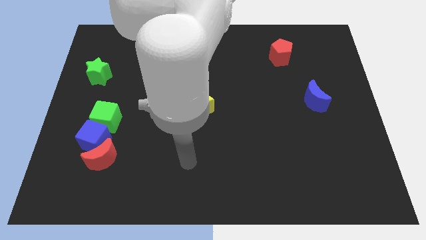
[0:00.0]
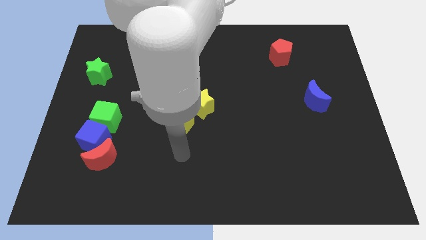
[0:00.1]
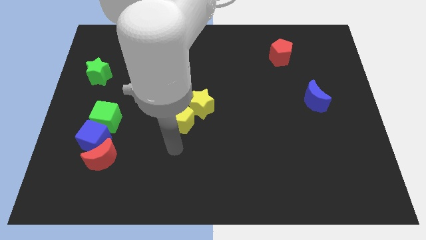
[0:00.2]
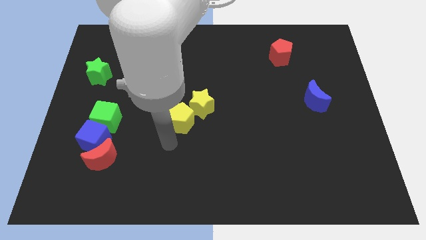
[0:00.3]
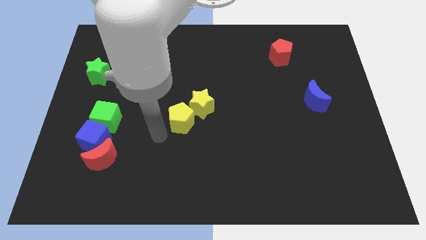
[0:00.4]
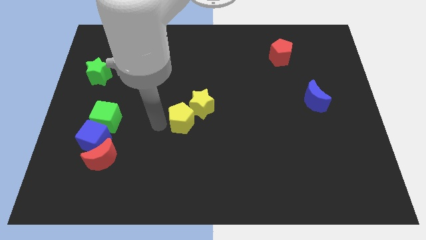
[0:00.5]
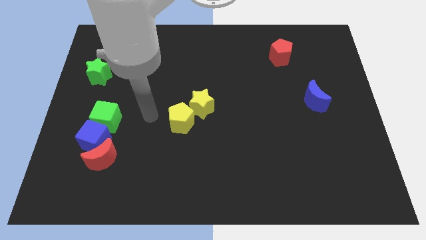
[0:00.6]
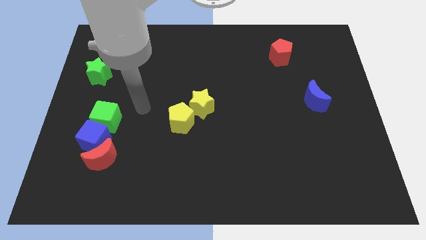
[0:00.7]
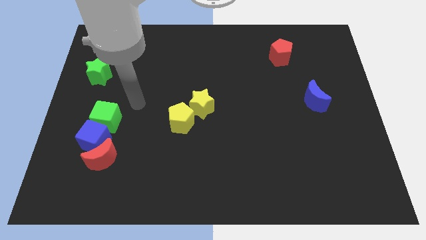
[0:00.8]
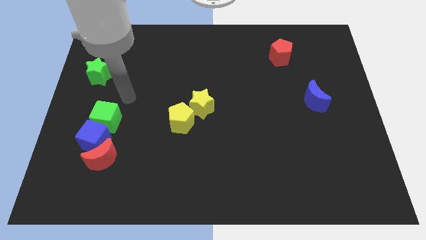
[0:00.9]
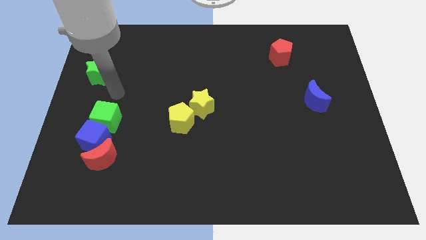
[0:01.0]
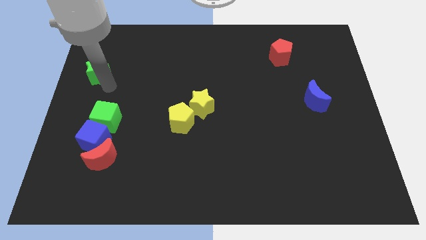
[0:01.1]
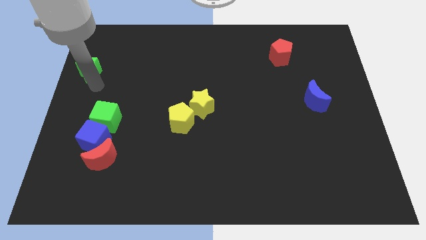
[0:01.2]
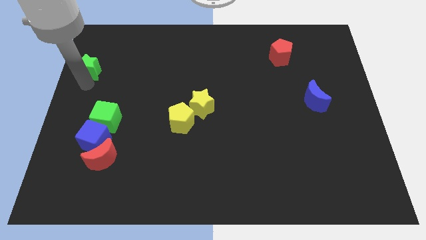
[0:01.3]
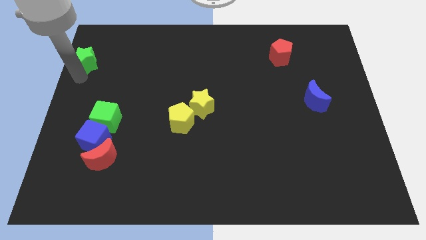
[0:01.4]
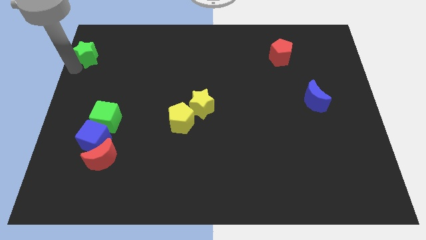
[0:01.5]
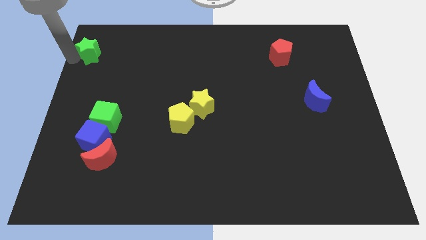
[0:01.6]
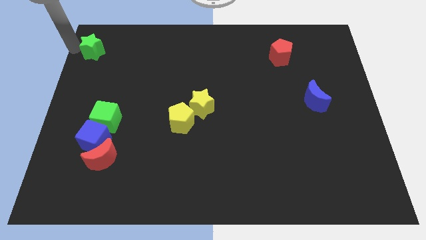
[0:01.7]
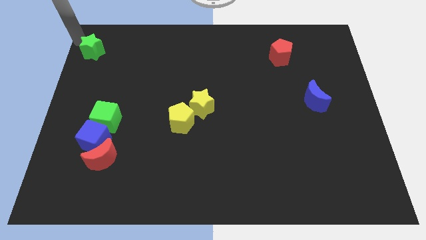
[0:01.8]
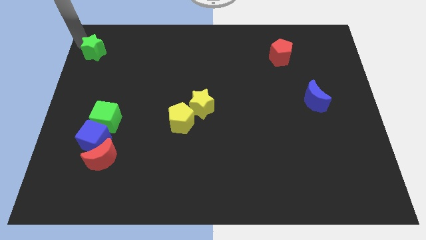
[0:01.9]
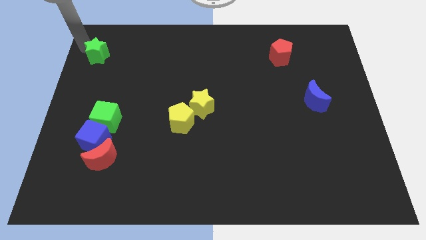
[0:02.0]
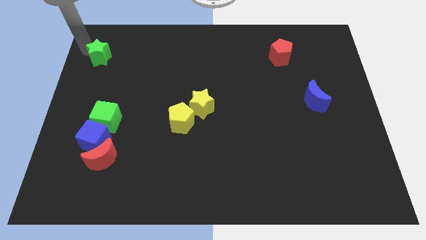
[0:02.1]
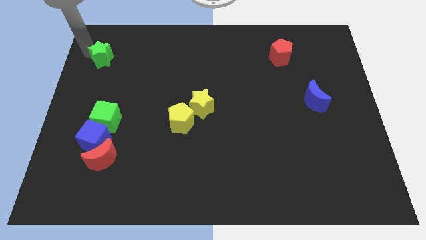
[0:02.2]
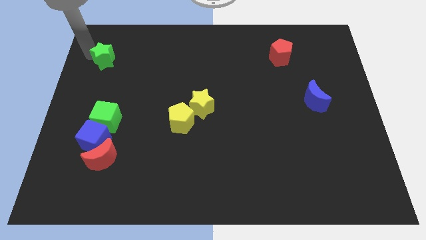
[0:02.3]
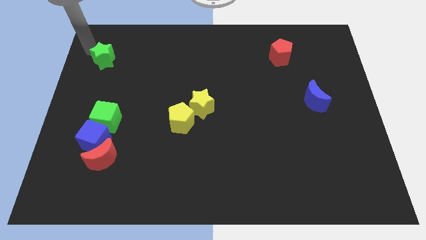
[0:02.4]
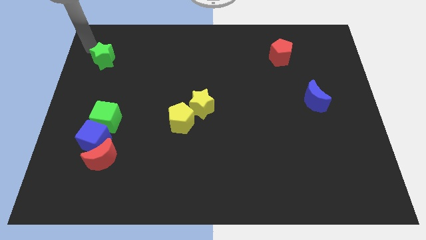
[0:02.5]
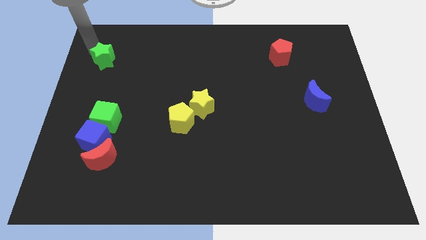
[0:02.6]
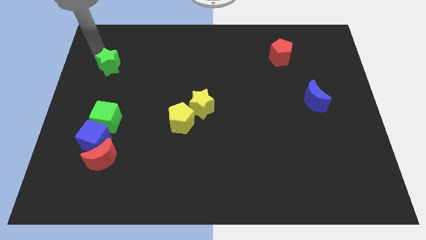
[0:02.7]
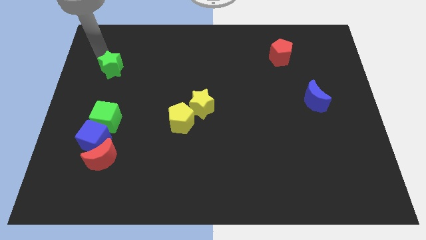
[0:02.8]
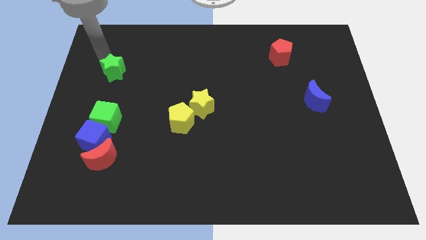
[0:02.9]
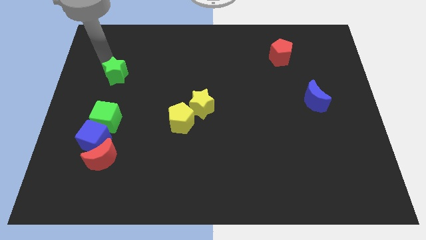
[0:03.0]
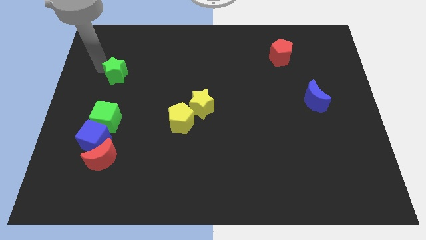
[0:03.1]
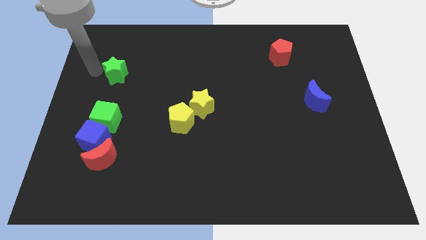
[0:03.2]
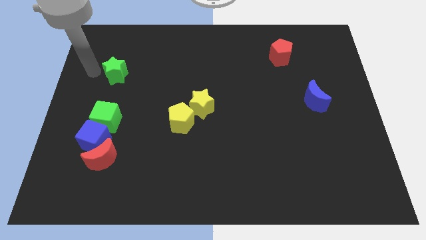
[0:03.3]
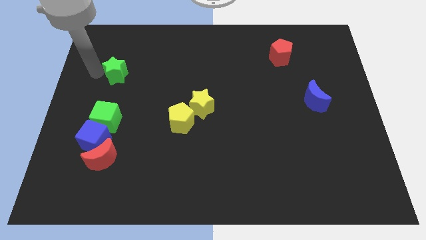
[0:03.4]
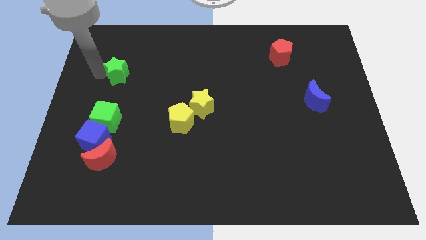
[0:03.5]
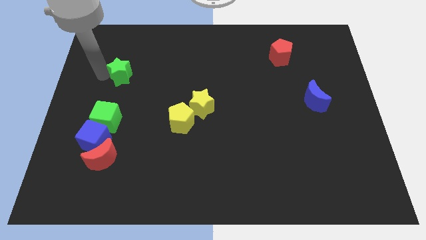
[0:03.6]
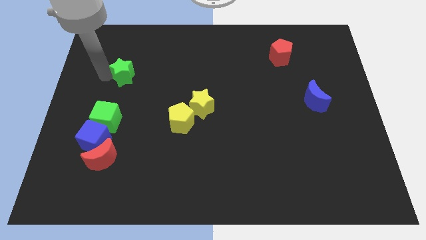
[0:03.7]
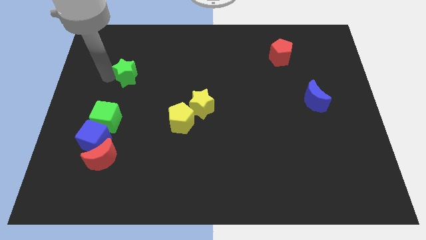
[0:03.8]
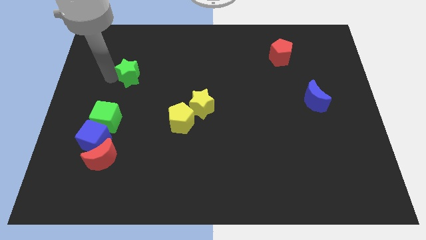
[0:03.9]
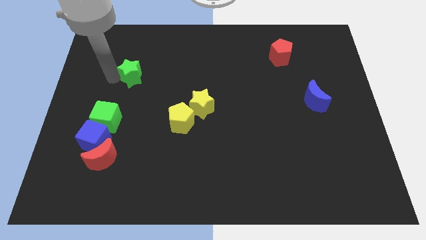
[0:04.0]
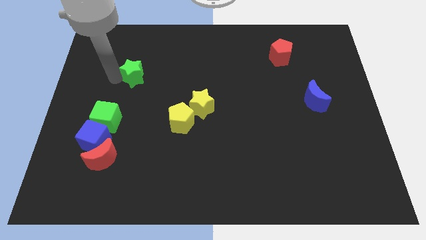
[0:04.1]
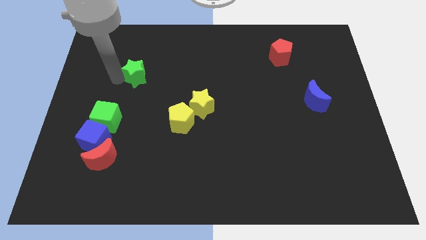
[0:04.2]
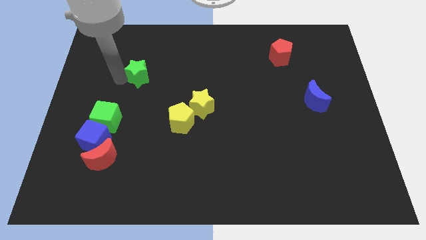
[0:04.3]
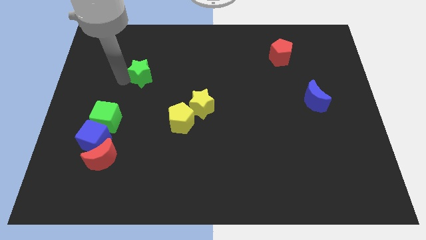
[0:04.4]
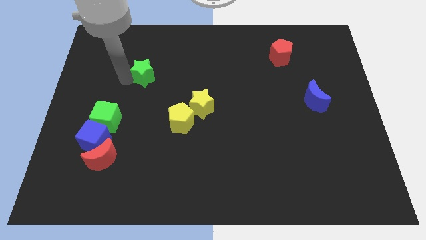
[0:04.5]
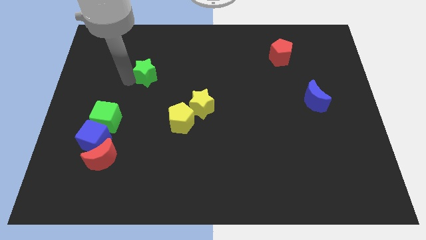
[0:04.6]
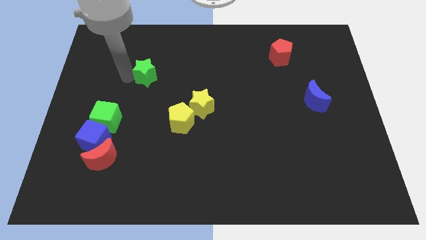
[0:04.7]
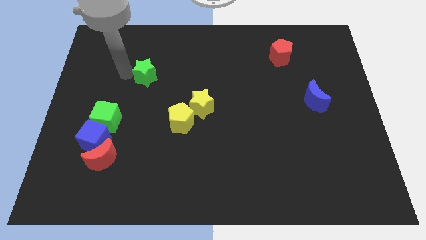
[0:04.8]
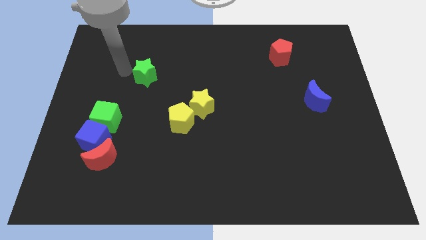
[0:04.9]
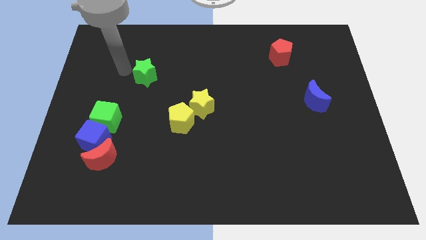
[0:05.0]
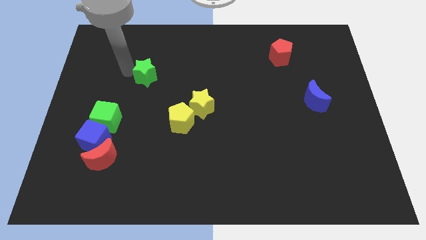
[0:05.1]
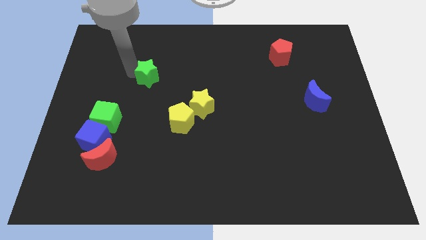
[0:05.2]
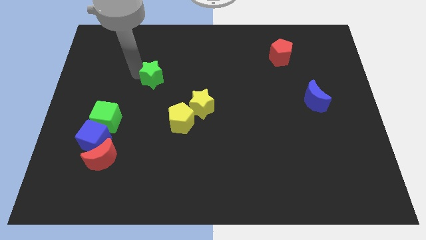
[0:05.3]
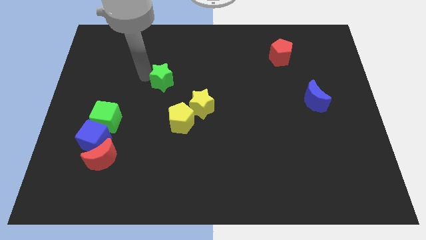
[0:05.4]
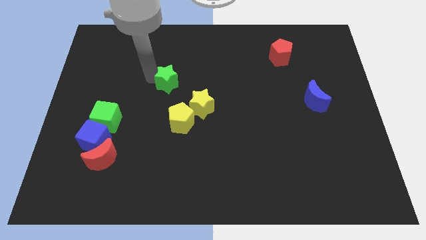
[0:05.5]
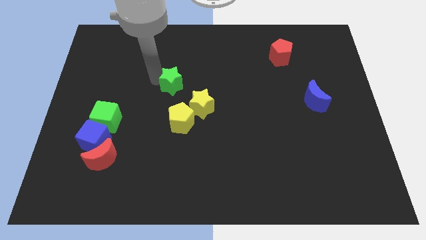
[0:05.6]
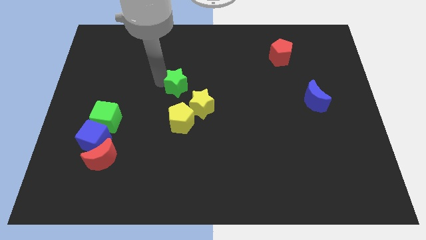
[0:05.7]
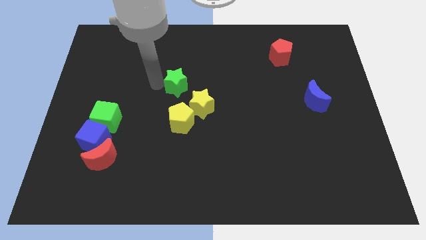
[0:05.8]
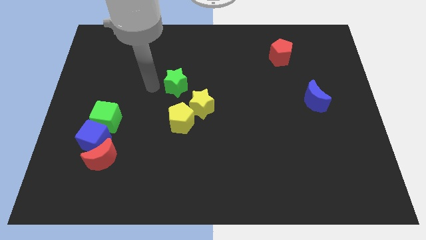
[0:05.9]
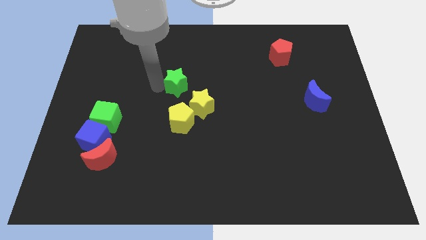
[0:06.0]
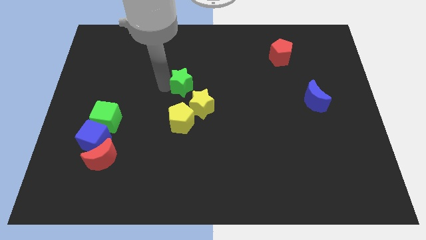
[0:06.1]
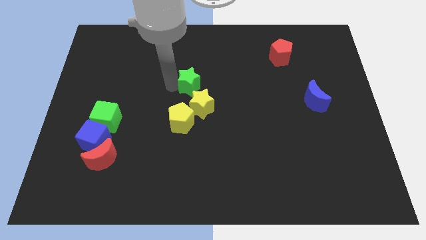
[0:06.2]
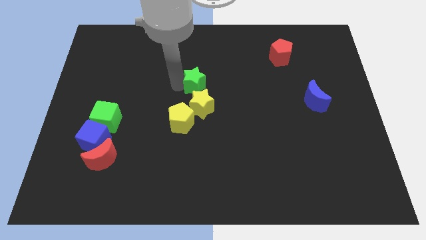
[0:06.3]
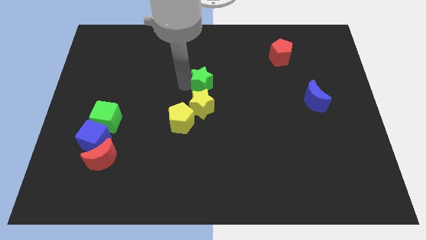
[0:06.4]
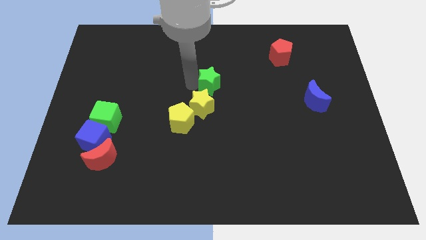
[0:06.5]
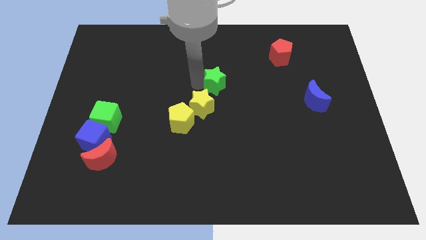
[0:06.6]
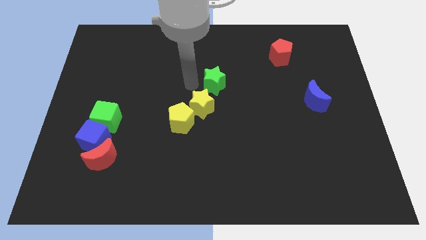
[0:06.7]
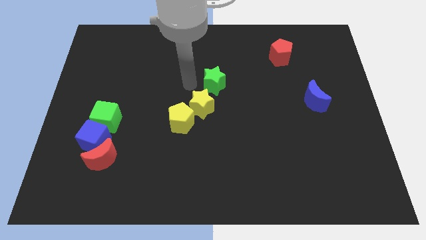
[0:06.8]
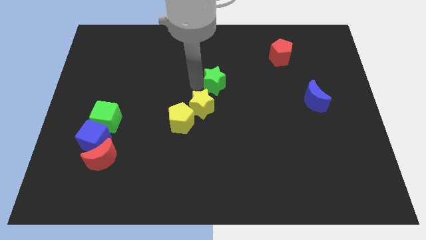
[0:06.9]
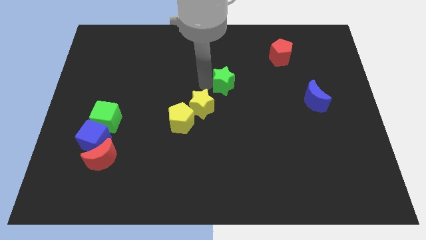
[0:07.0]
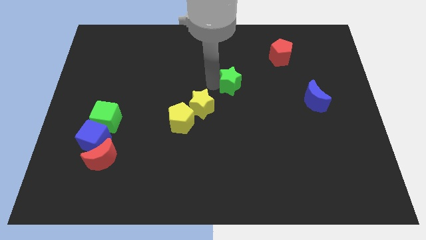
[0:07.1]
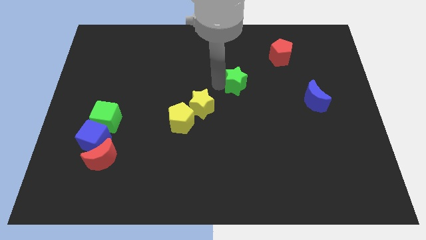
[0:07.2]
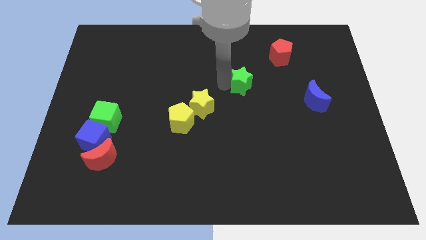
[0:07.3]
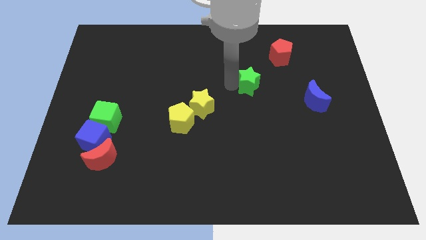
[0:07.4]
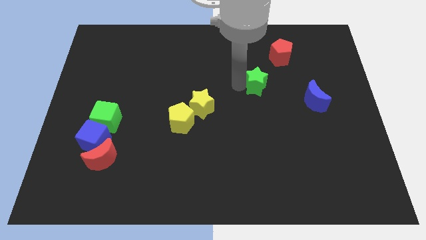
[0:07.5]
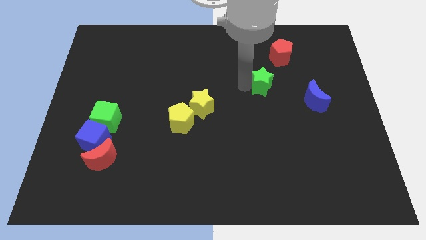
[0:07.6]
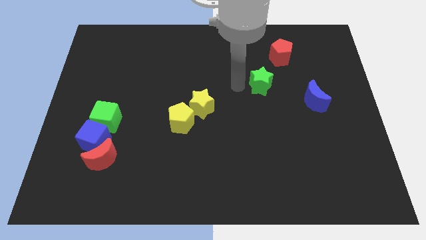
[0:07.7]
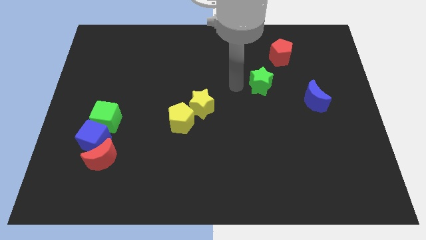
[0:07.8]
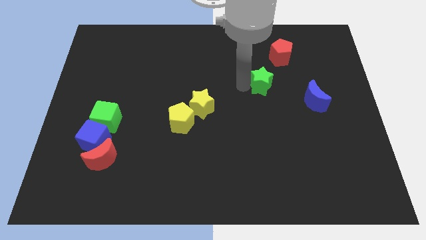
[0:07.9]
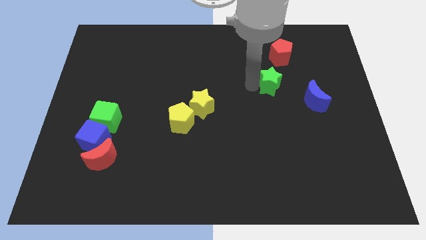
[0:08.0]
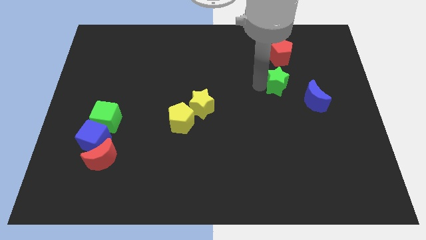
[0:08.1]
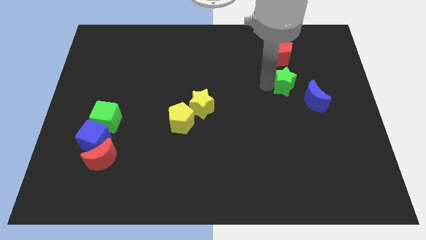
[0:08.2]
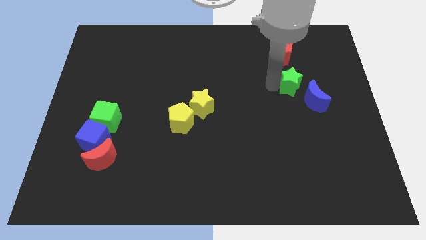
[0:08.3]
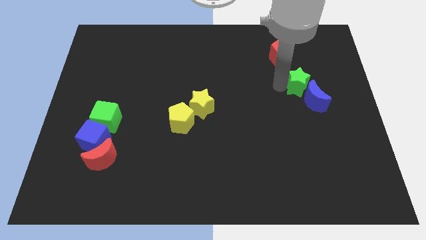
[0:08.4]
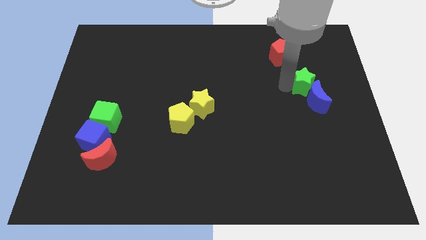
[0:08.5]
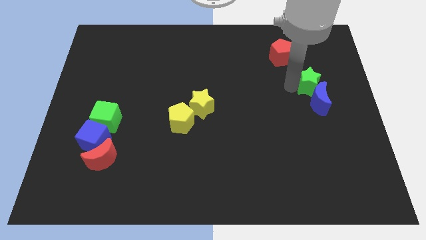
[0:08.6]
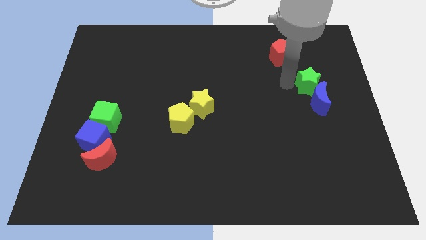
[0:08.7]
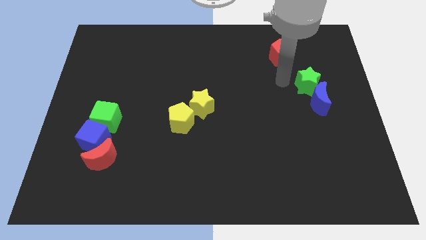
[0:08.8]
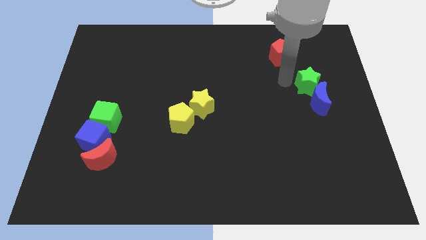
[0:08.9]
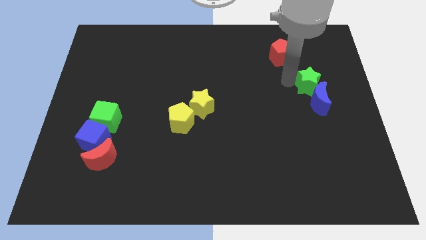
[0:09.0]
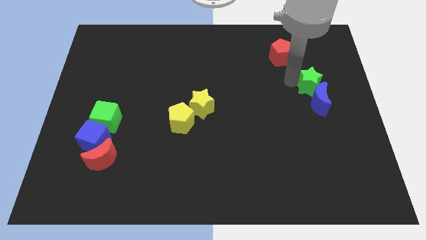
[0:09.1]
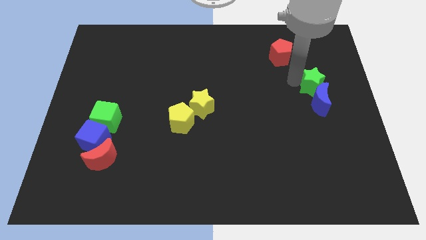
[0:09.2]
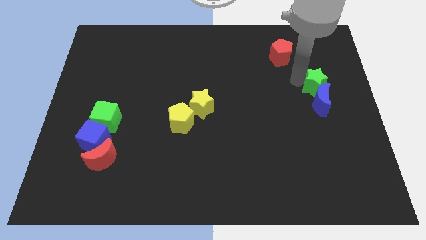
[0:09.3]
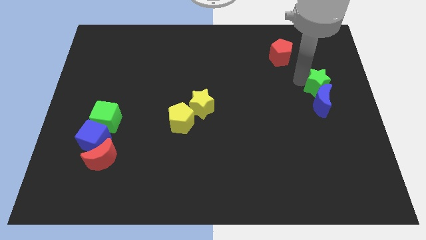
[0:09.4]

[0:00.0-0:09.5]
slide the green star to the center right
